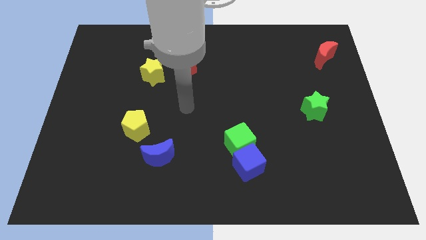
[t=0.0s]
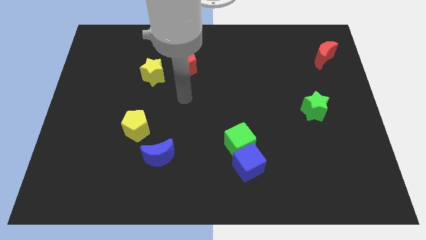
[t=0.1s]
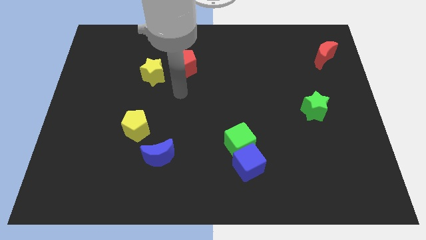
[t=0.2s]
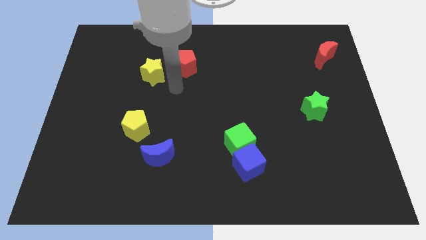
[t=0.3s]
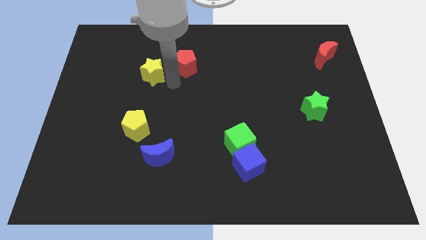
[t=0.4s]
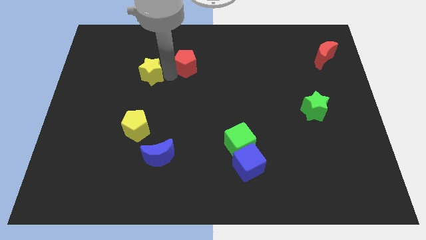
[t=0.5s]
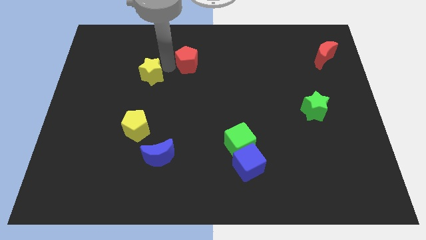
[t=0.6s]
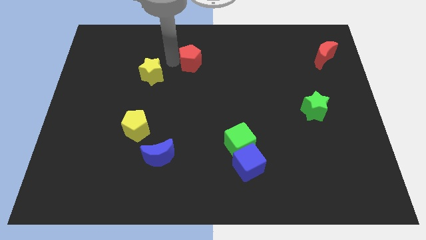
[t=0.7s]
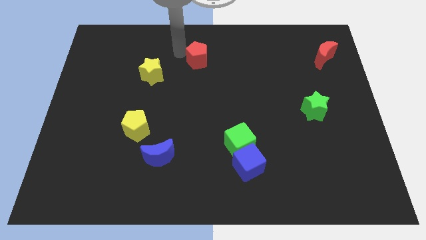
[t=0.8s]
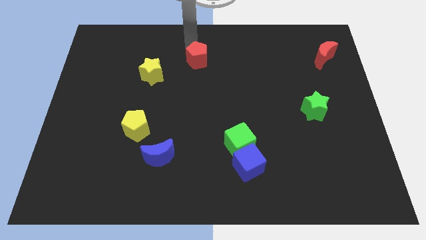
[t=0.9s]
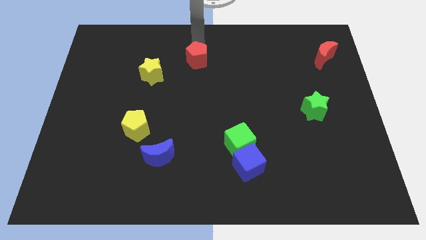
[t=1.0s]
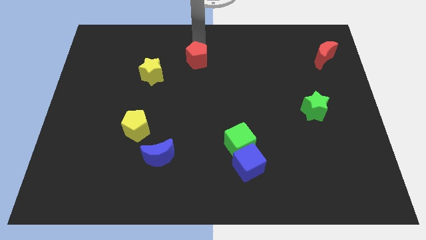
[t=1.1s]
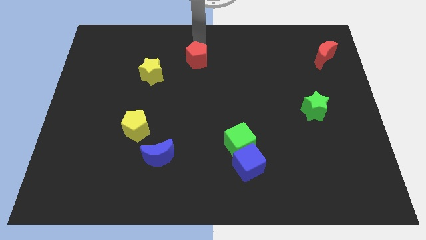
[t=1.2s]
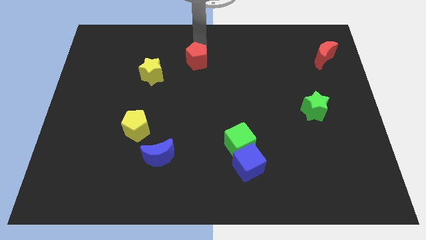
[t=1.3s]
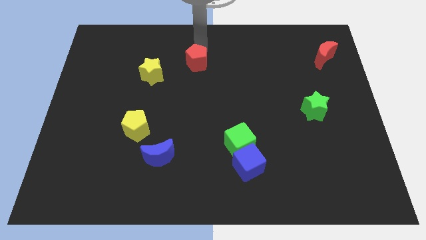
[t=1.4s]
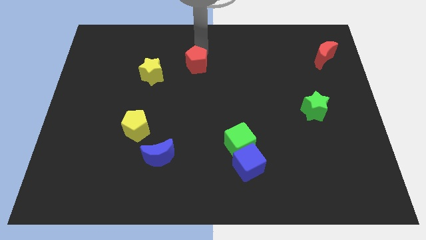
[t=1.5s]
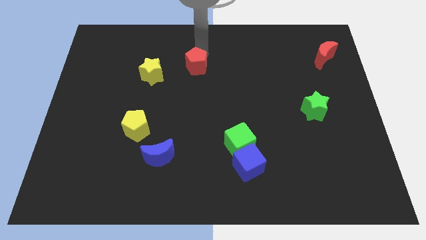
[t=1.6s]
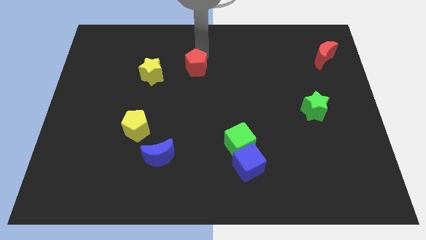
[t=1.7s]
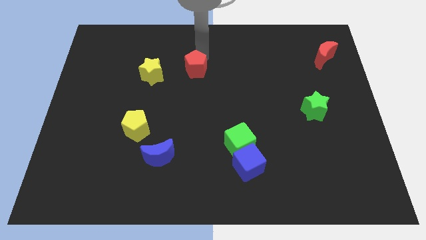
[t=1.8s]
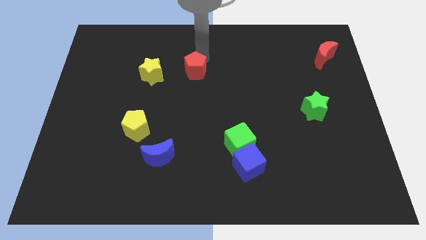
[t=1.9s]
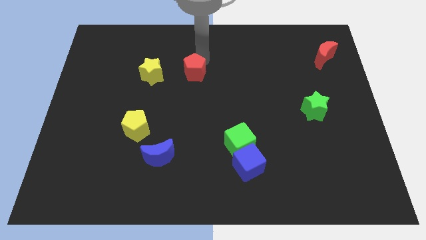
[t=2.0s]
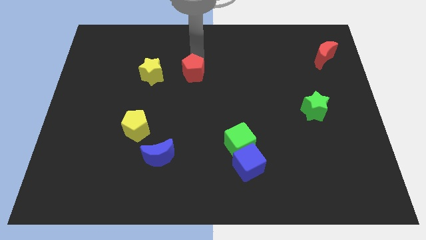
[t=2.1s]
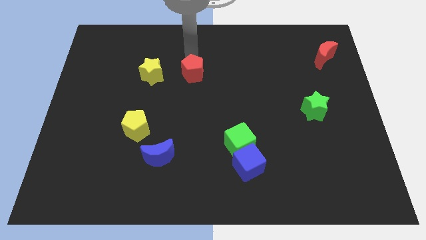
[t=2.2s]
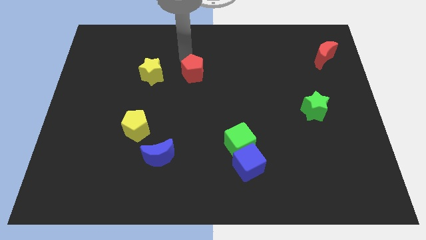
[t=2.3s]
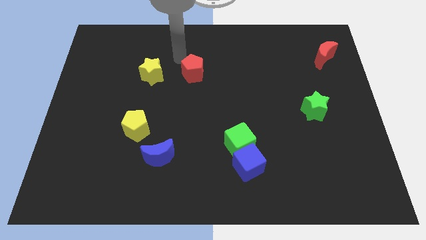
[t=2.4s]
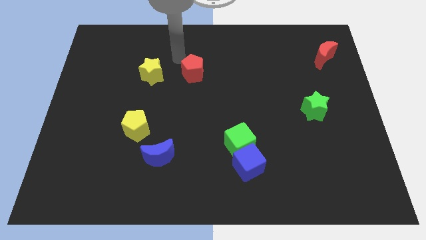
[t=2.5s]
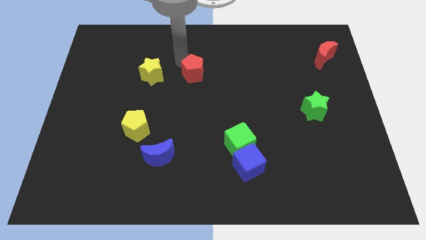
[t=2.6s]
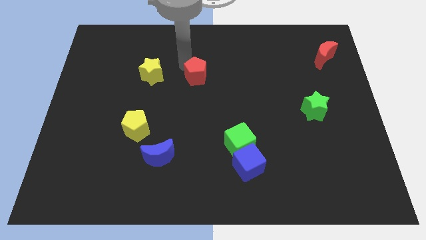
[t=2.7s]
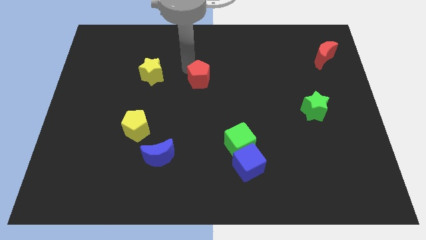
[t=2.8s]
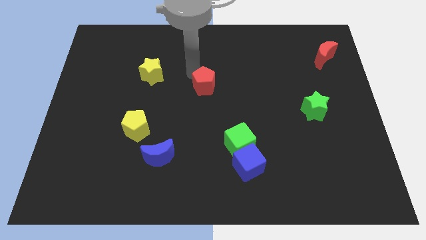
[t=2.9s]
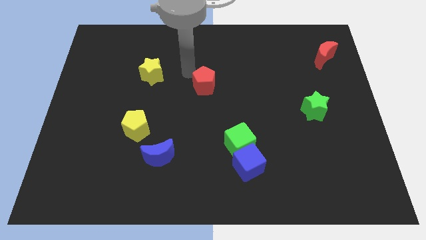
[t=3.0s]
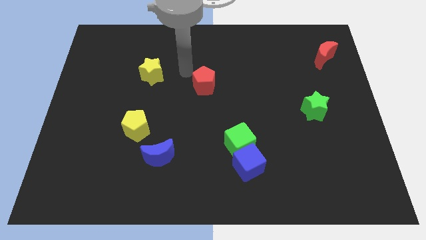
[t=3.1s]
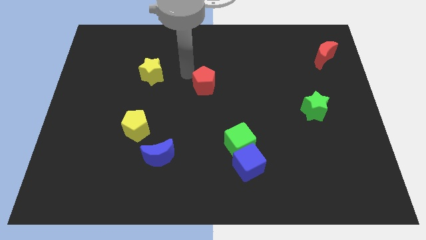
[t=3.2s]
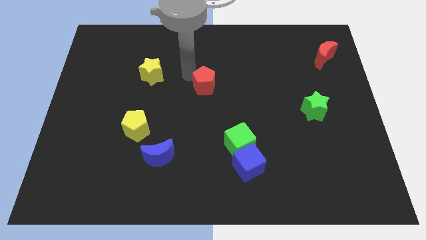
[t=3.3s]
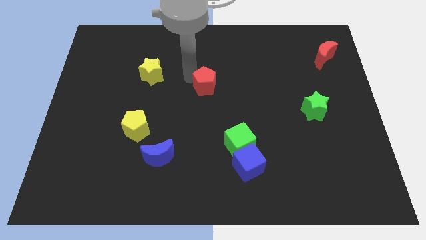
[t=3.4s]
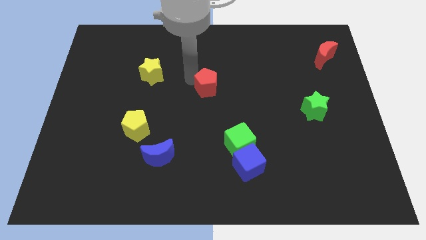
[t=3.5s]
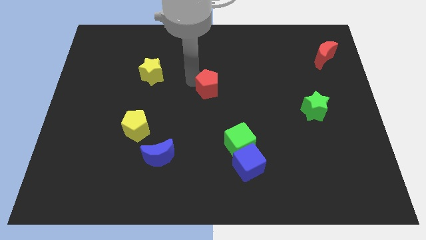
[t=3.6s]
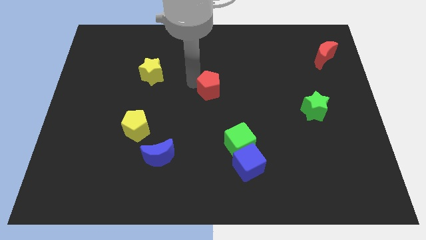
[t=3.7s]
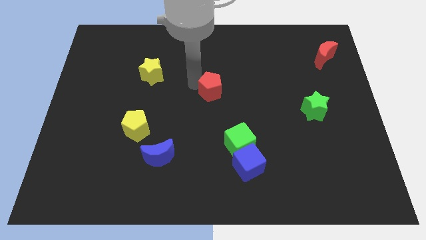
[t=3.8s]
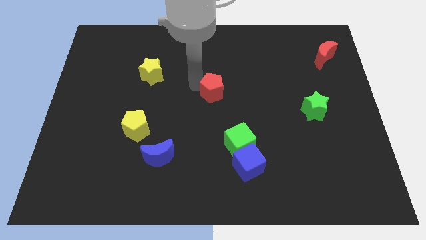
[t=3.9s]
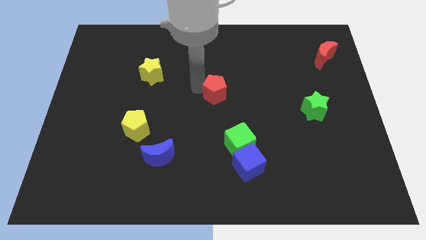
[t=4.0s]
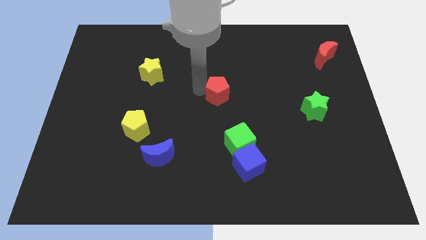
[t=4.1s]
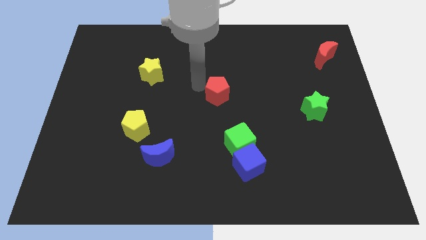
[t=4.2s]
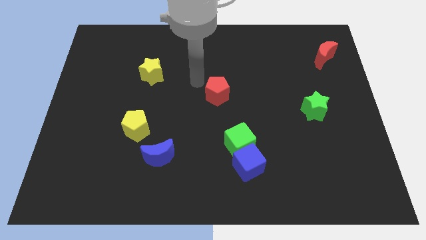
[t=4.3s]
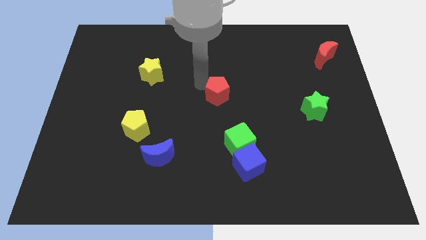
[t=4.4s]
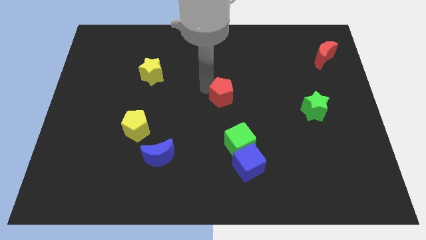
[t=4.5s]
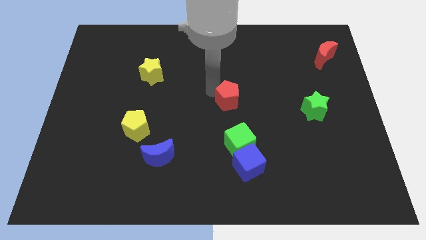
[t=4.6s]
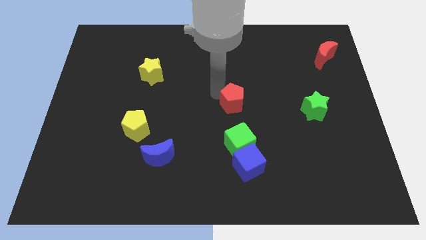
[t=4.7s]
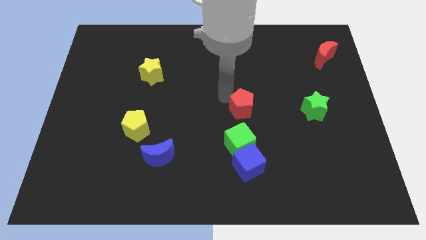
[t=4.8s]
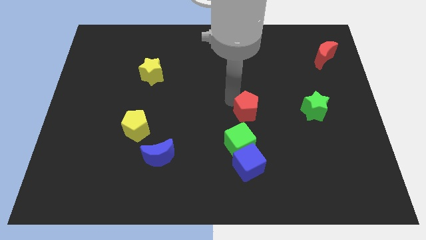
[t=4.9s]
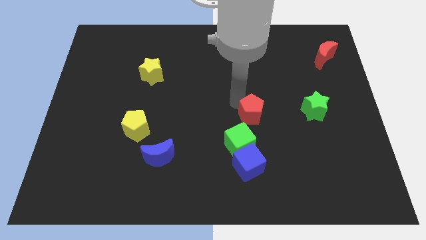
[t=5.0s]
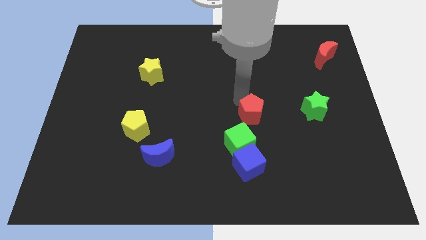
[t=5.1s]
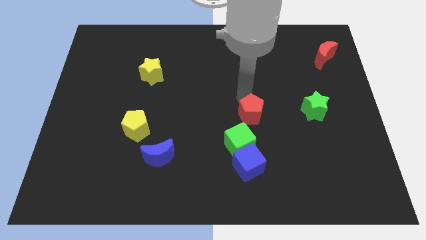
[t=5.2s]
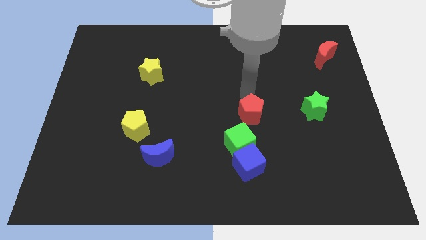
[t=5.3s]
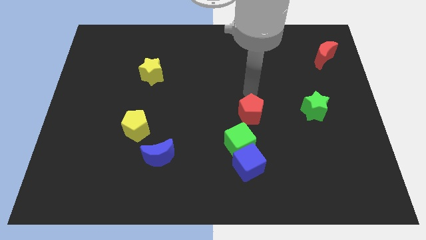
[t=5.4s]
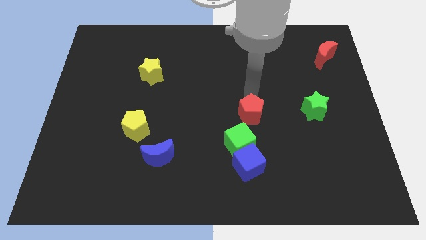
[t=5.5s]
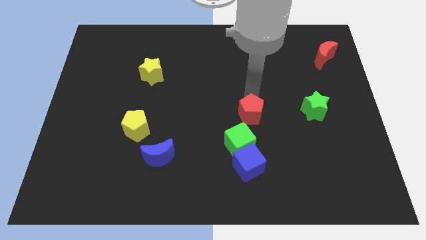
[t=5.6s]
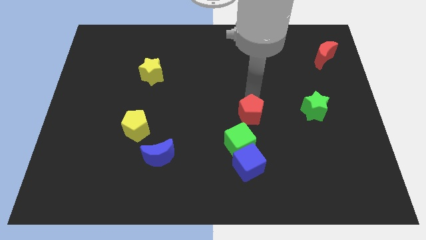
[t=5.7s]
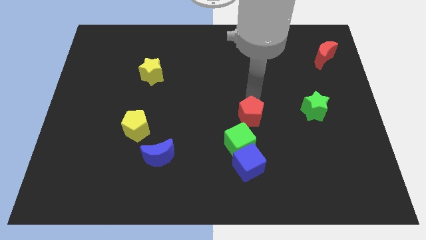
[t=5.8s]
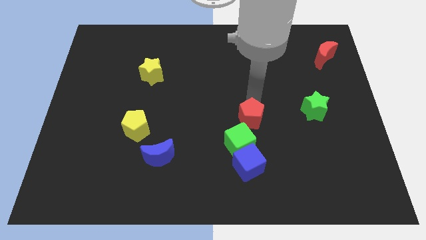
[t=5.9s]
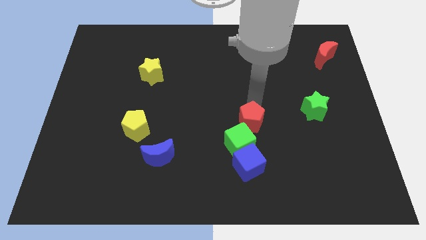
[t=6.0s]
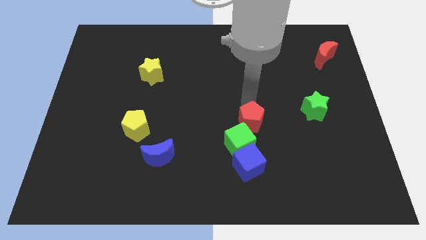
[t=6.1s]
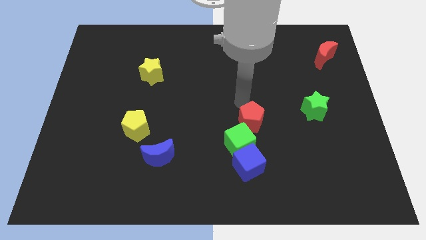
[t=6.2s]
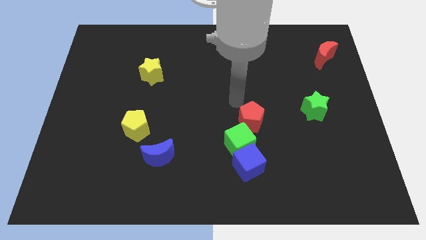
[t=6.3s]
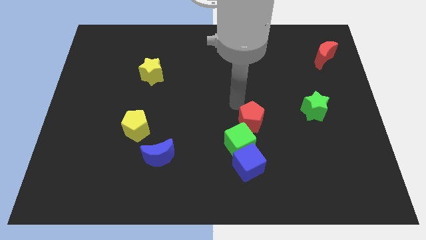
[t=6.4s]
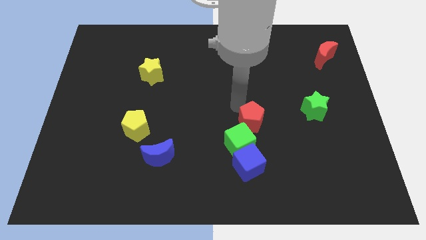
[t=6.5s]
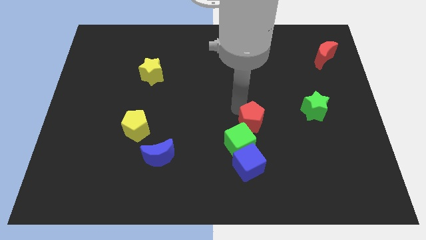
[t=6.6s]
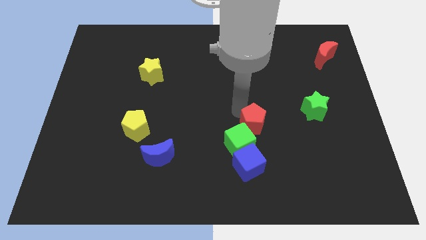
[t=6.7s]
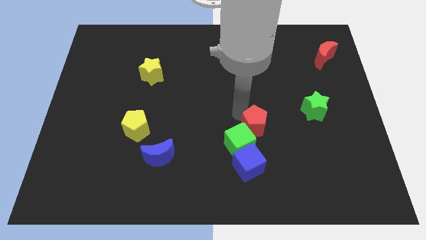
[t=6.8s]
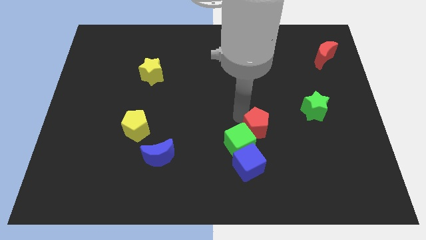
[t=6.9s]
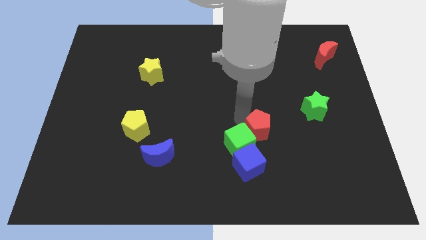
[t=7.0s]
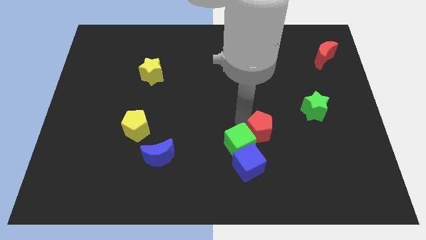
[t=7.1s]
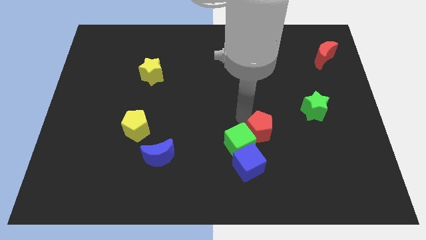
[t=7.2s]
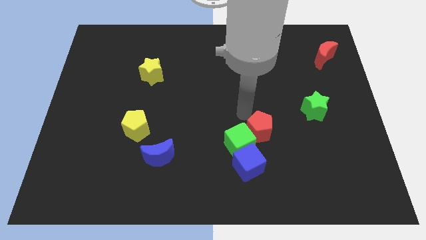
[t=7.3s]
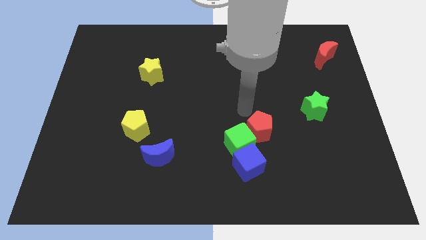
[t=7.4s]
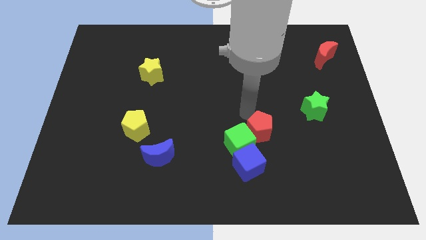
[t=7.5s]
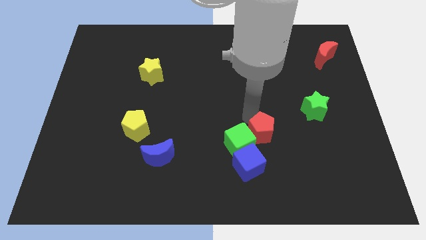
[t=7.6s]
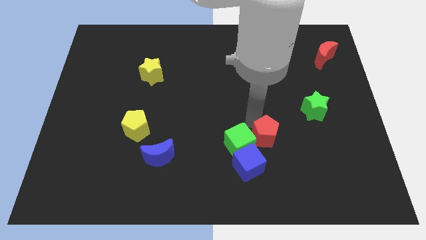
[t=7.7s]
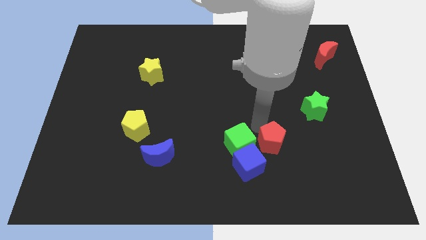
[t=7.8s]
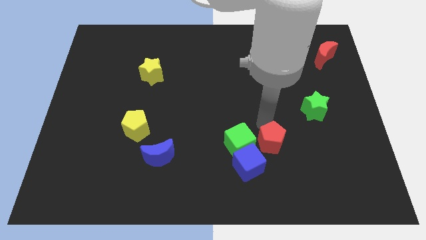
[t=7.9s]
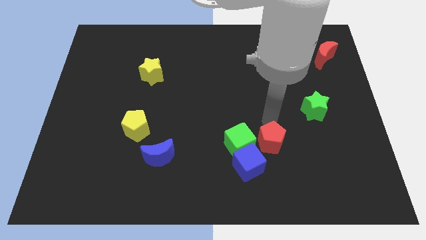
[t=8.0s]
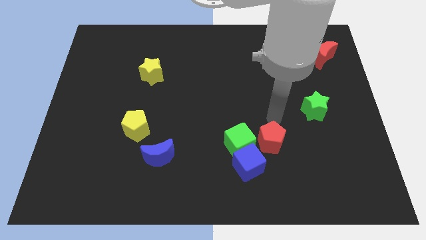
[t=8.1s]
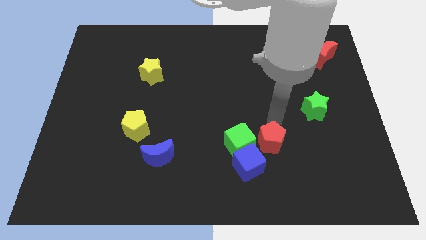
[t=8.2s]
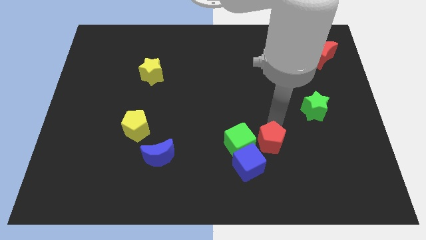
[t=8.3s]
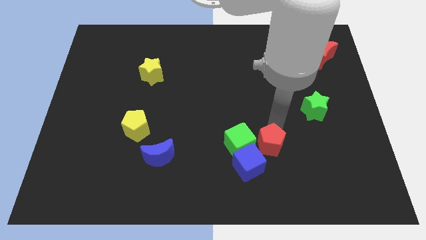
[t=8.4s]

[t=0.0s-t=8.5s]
slide the red pentagon to the bottom right of the green cube
